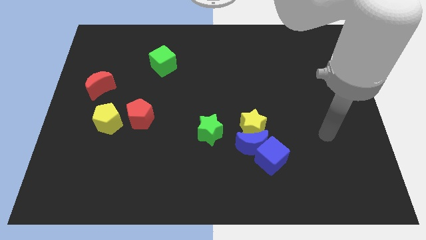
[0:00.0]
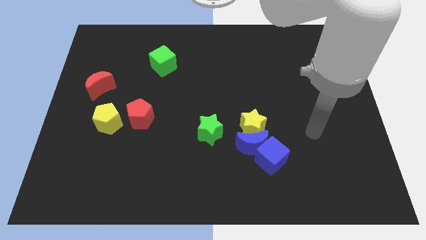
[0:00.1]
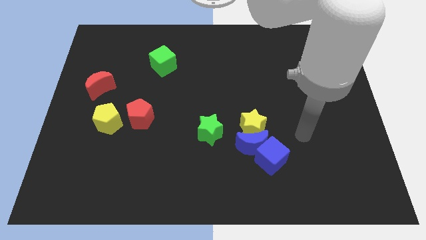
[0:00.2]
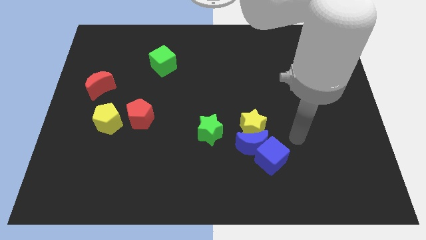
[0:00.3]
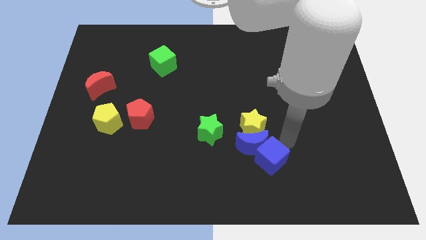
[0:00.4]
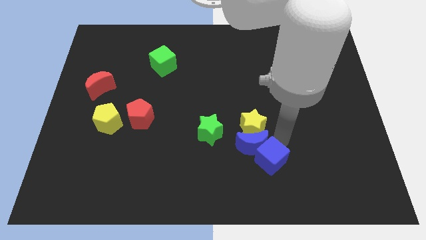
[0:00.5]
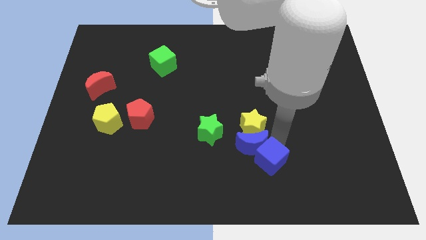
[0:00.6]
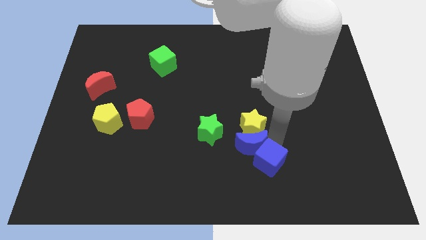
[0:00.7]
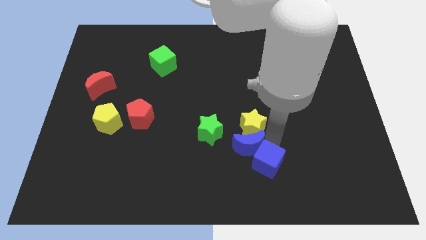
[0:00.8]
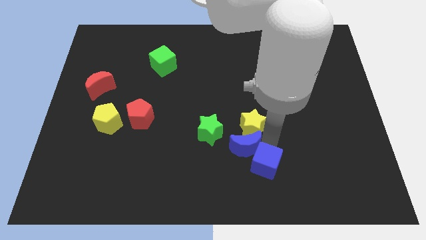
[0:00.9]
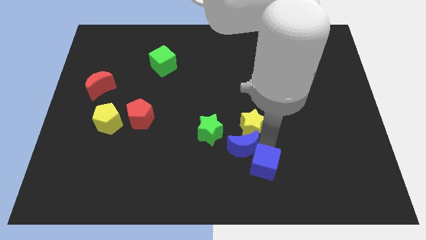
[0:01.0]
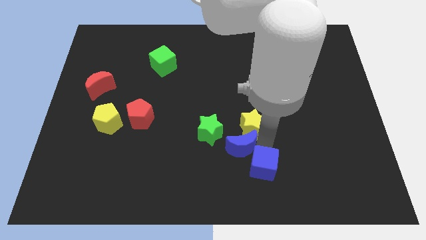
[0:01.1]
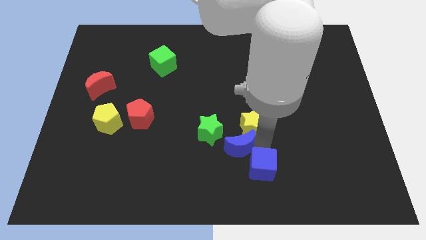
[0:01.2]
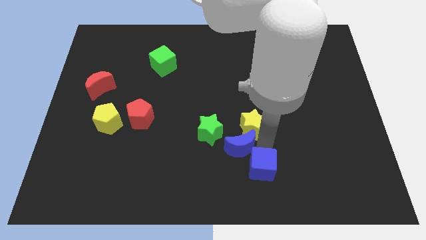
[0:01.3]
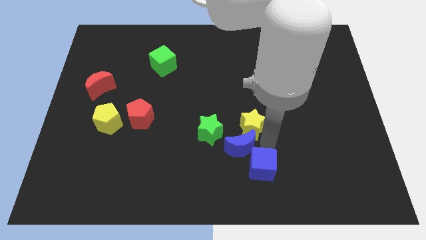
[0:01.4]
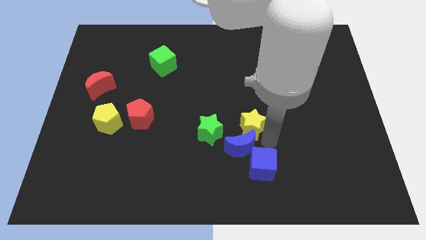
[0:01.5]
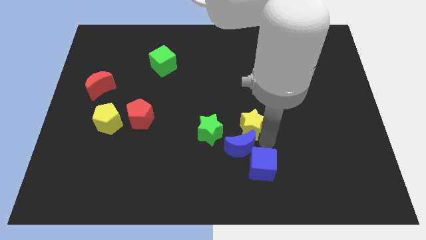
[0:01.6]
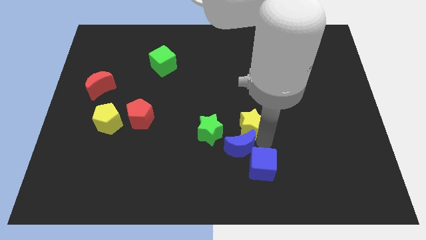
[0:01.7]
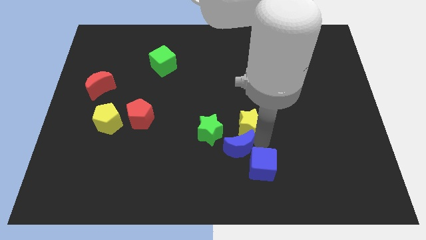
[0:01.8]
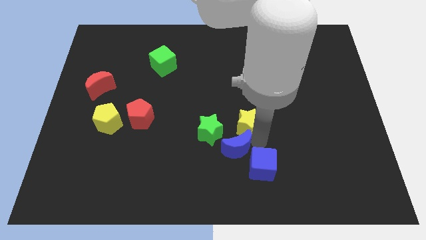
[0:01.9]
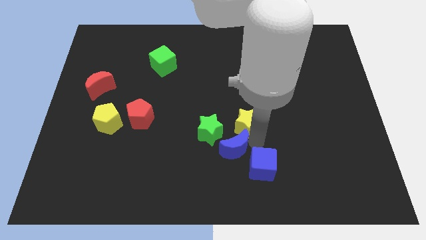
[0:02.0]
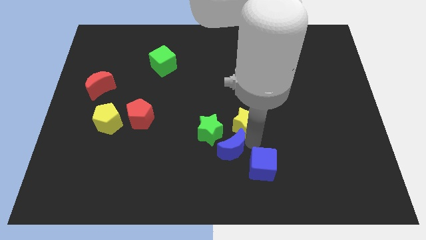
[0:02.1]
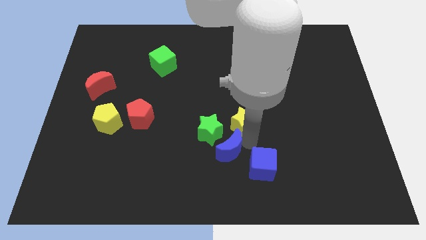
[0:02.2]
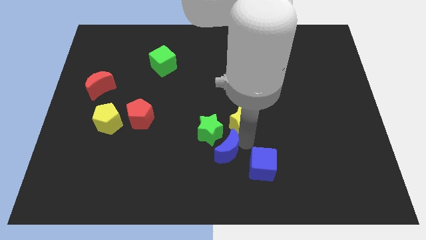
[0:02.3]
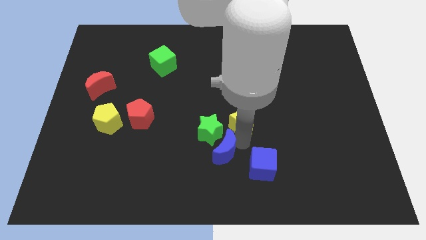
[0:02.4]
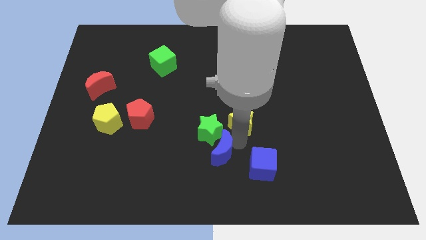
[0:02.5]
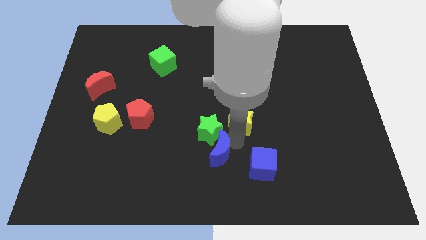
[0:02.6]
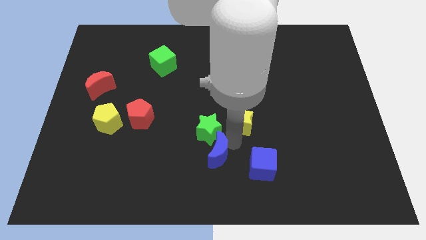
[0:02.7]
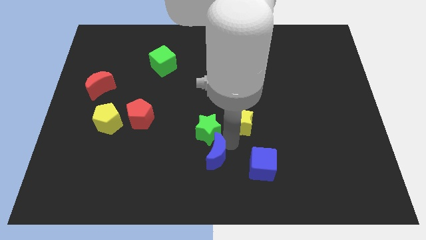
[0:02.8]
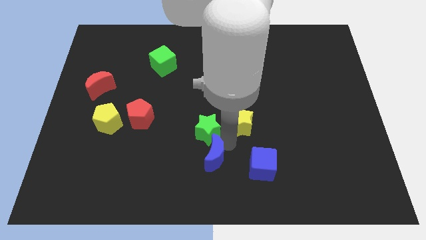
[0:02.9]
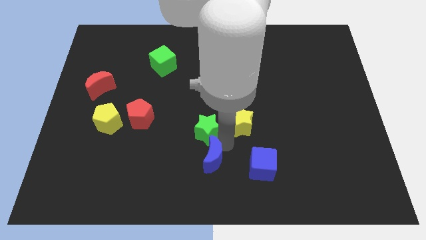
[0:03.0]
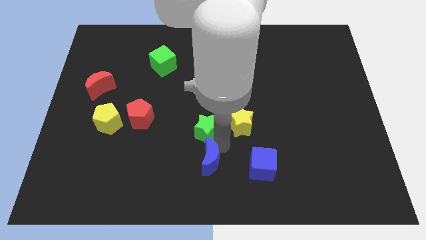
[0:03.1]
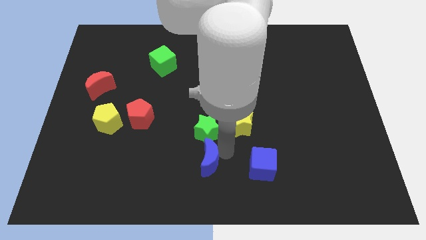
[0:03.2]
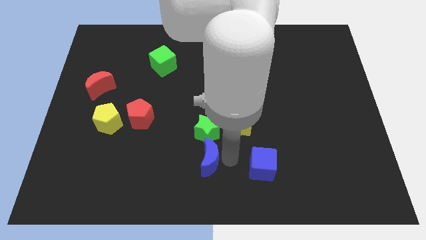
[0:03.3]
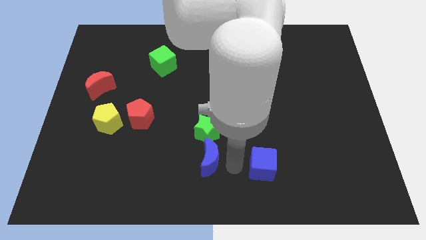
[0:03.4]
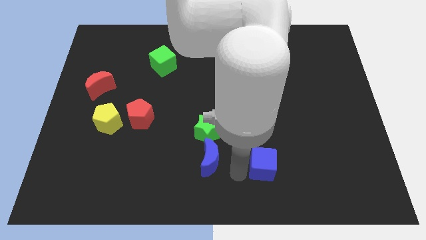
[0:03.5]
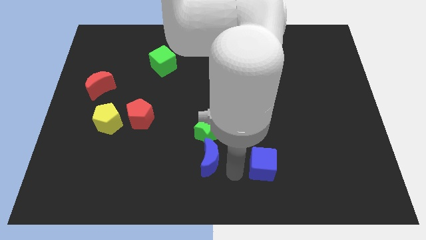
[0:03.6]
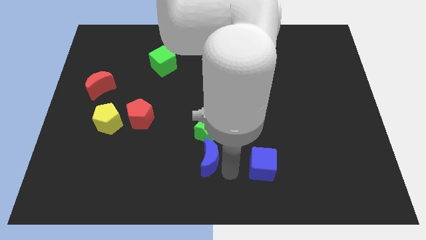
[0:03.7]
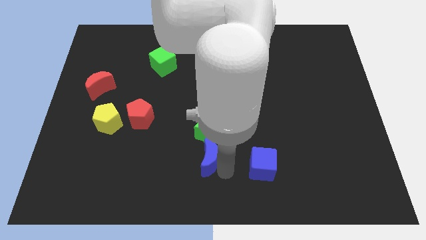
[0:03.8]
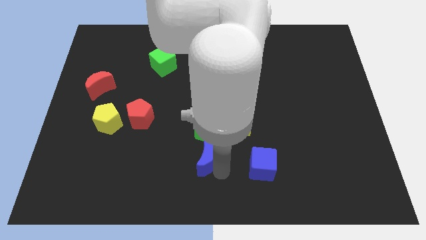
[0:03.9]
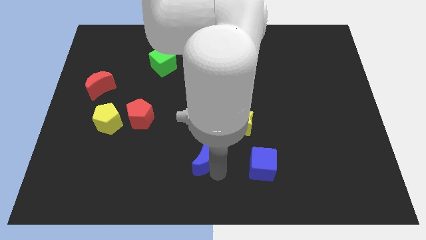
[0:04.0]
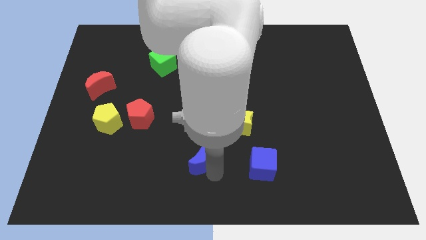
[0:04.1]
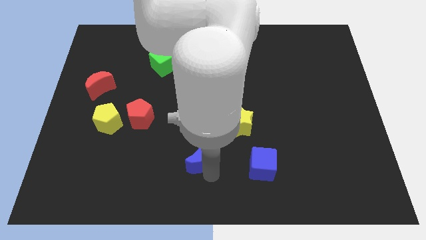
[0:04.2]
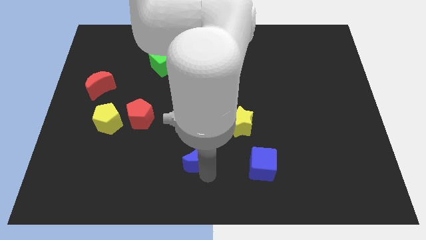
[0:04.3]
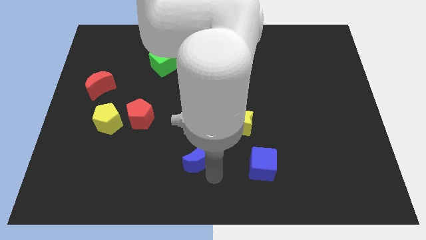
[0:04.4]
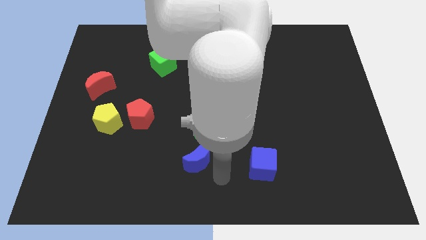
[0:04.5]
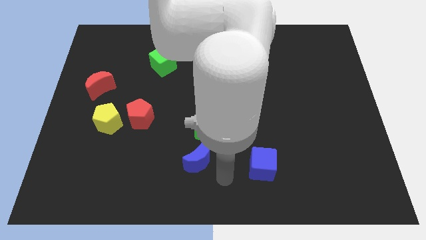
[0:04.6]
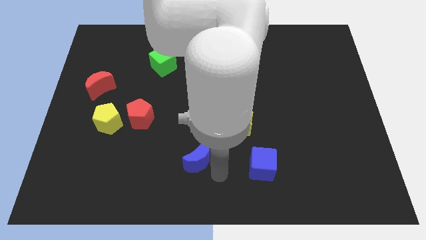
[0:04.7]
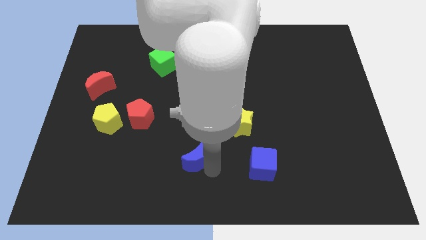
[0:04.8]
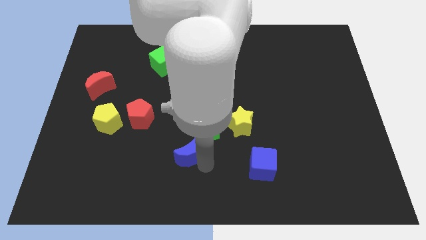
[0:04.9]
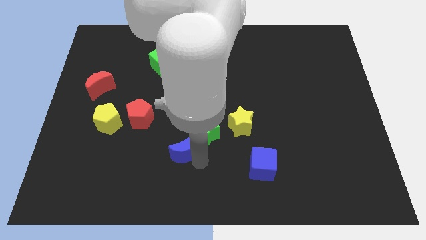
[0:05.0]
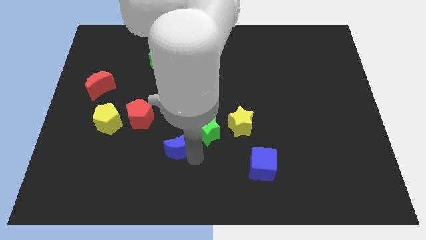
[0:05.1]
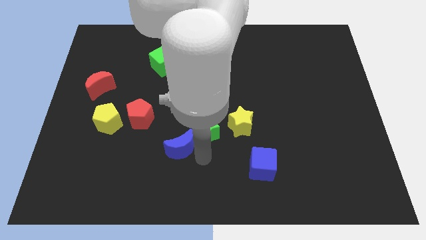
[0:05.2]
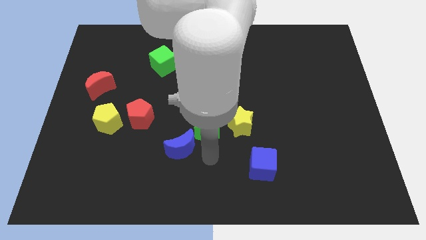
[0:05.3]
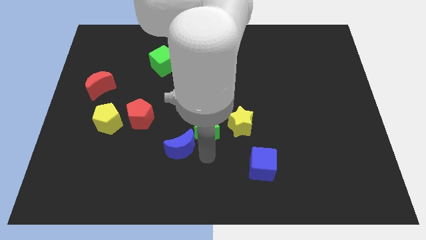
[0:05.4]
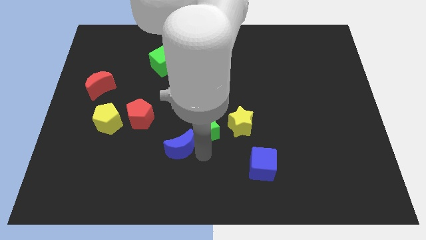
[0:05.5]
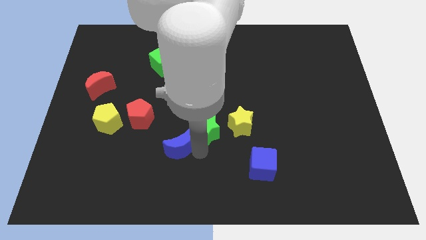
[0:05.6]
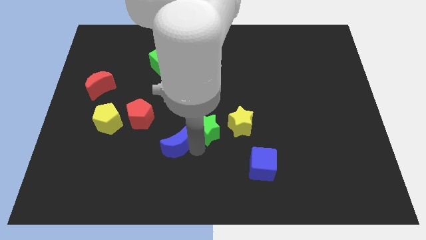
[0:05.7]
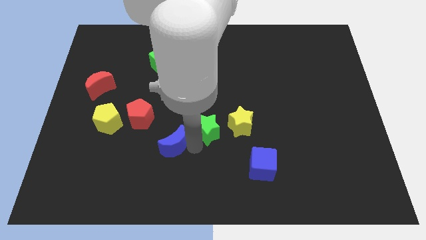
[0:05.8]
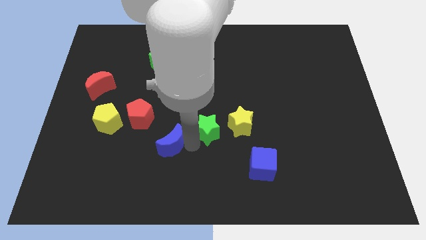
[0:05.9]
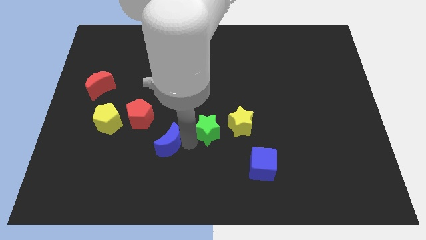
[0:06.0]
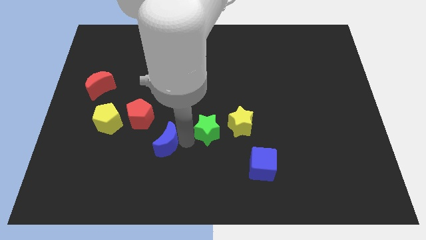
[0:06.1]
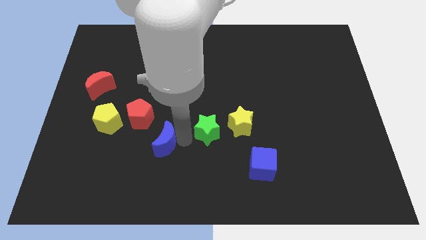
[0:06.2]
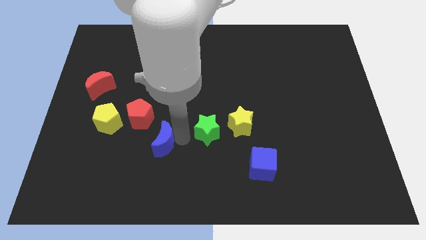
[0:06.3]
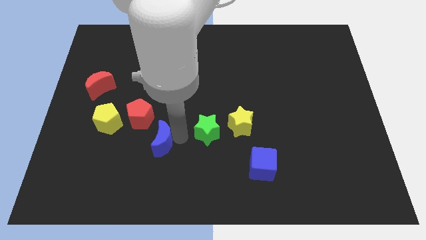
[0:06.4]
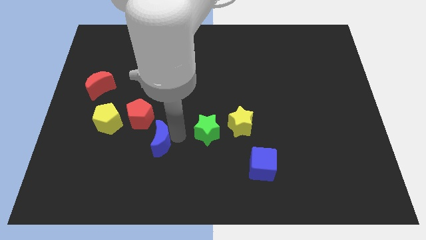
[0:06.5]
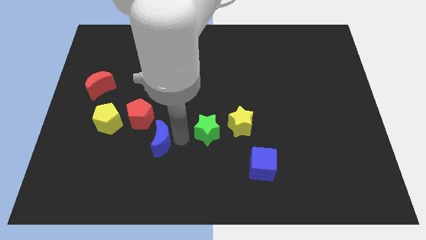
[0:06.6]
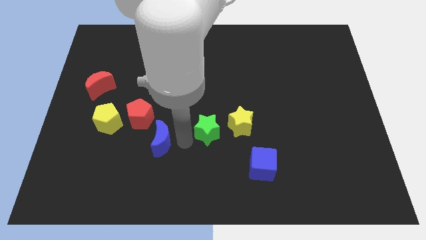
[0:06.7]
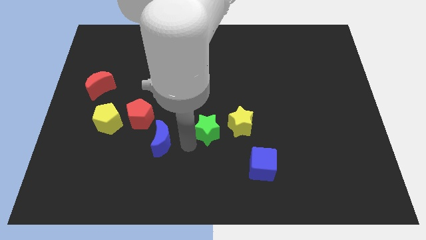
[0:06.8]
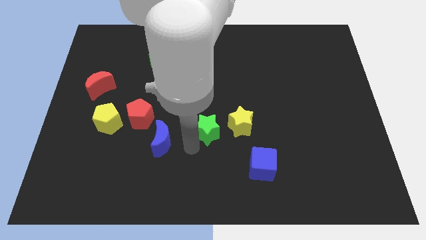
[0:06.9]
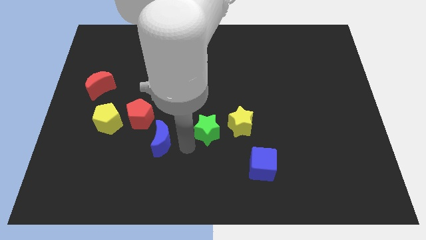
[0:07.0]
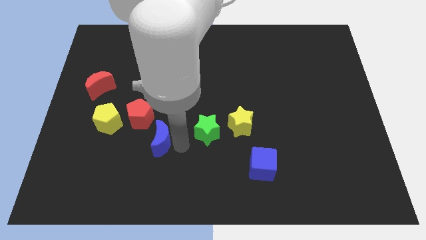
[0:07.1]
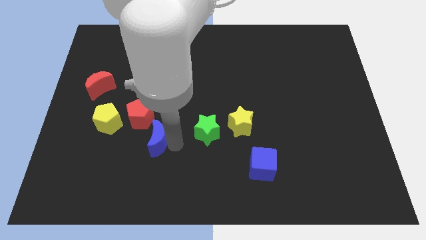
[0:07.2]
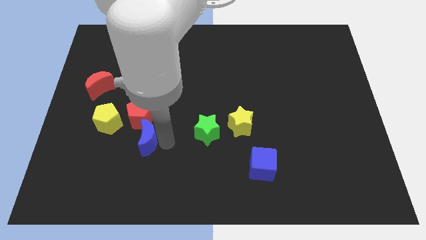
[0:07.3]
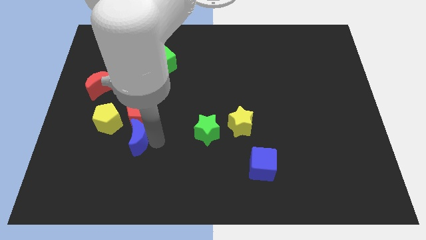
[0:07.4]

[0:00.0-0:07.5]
slide the blue moon to the bottom left side of the red pentagon
